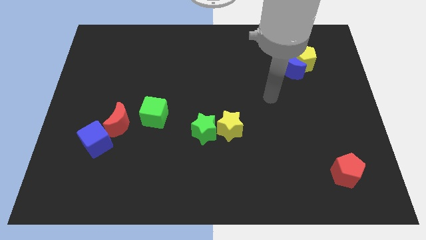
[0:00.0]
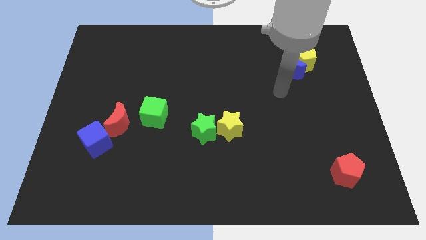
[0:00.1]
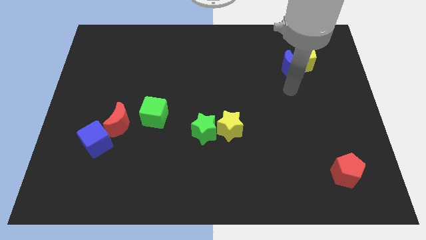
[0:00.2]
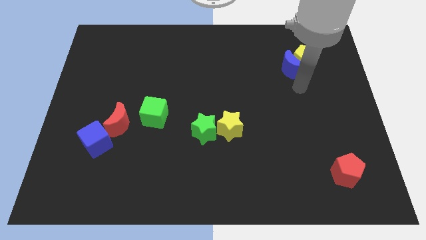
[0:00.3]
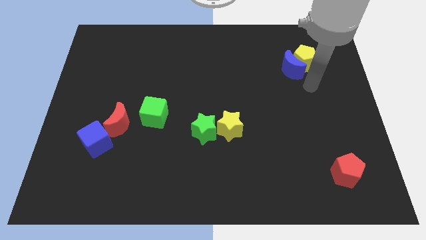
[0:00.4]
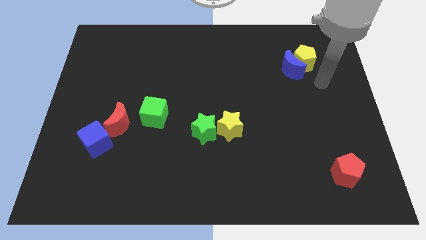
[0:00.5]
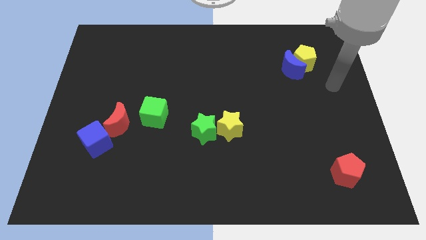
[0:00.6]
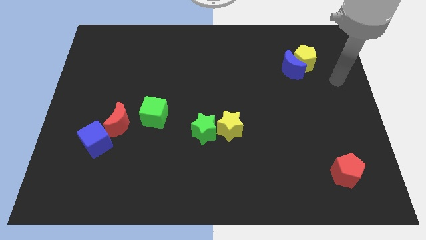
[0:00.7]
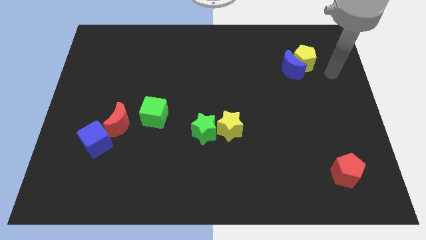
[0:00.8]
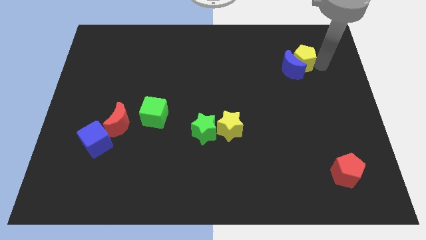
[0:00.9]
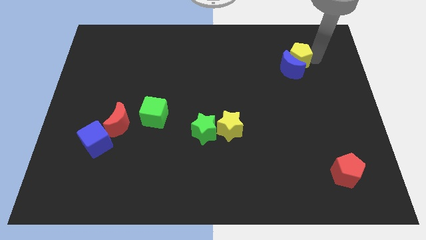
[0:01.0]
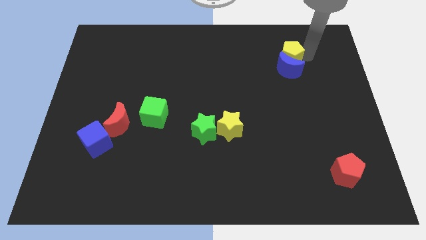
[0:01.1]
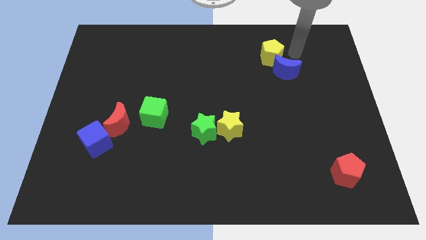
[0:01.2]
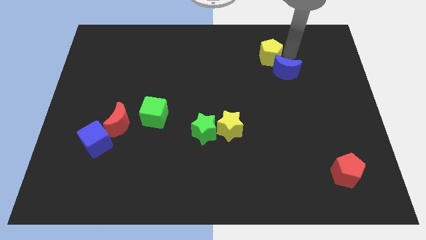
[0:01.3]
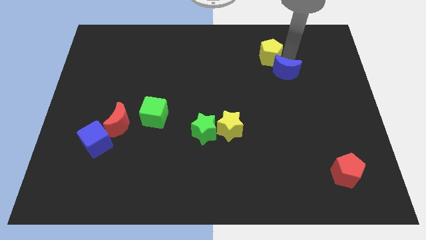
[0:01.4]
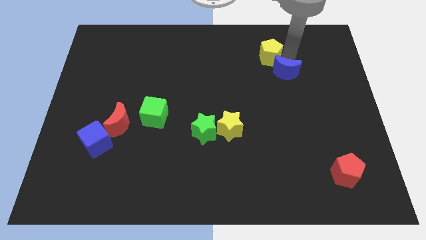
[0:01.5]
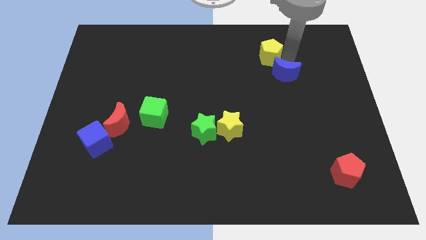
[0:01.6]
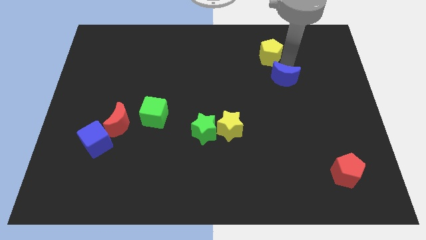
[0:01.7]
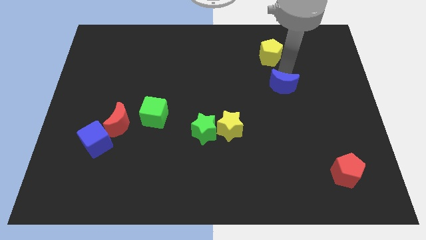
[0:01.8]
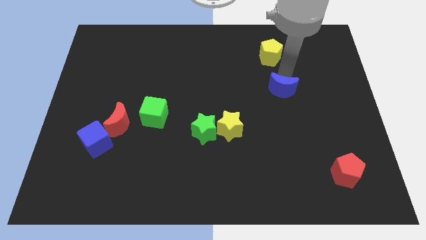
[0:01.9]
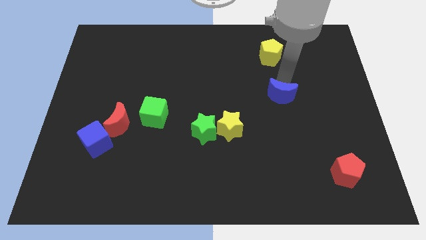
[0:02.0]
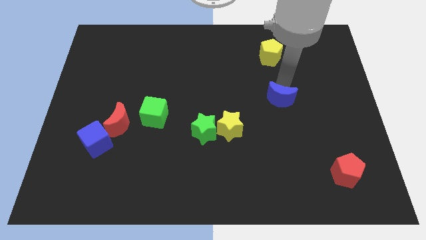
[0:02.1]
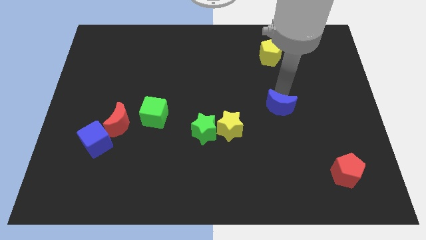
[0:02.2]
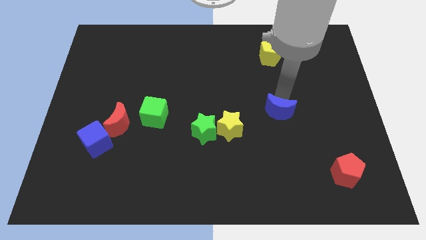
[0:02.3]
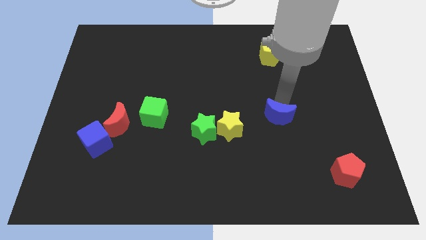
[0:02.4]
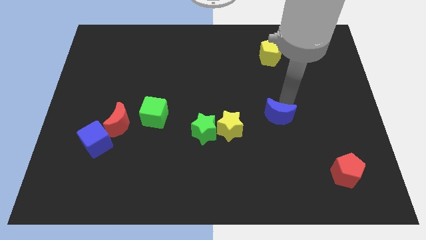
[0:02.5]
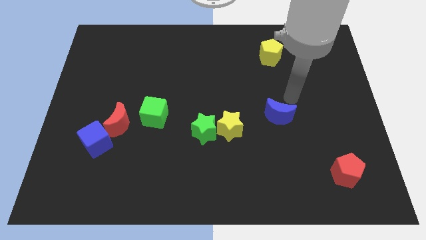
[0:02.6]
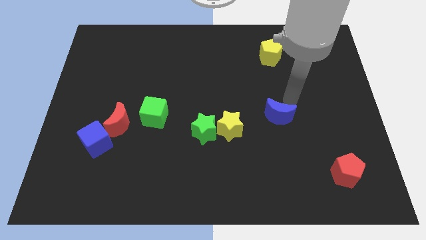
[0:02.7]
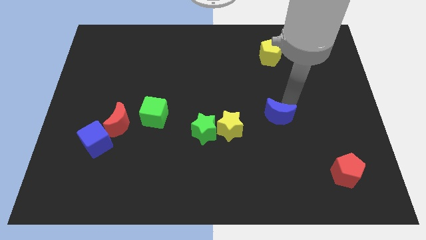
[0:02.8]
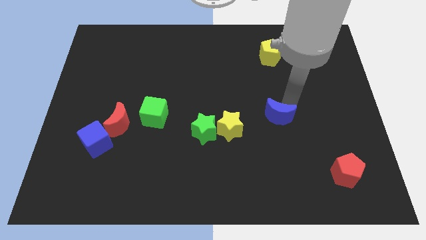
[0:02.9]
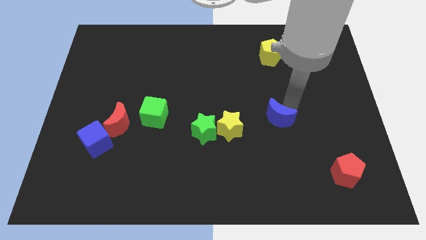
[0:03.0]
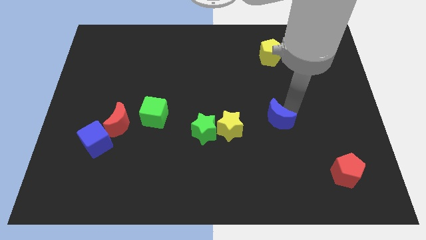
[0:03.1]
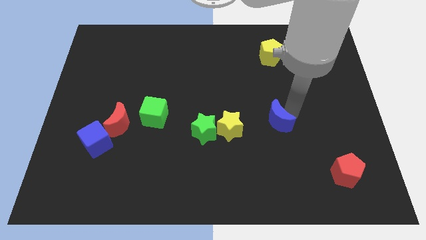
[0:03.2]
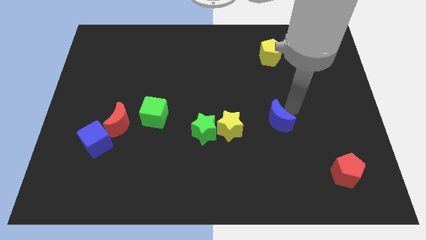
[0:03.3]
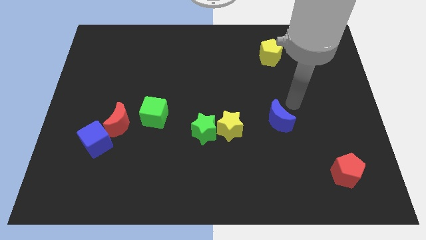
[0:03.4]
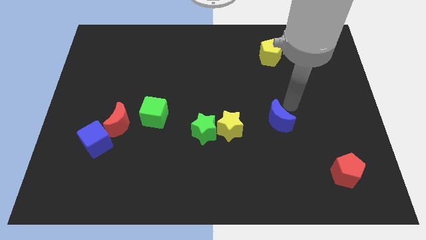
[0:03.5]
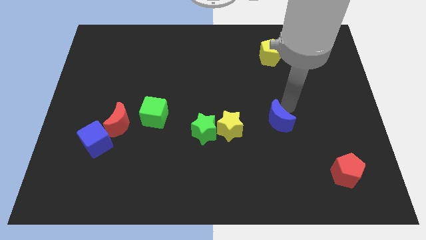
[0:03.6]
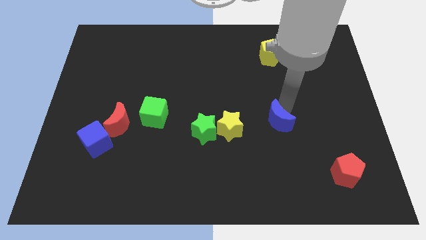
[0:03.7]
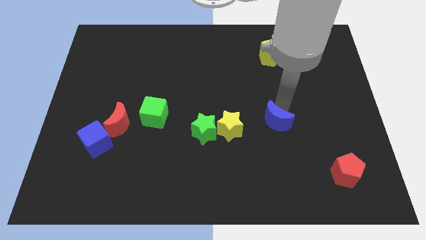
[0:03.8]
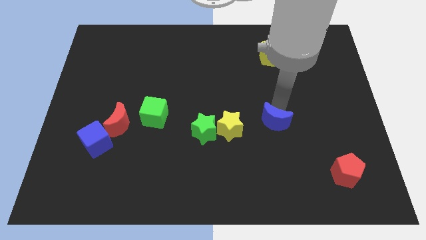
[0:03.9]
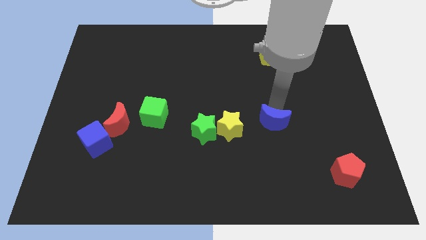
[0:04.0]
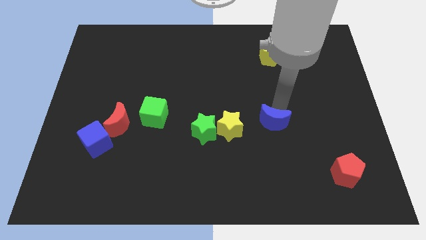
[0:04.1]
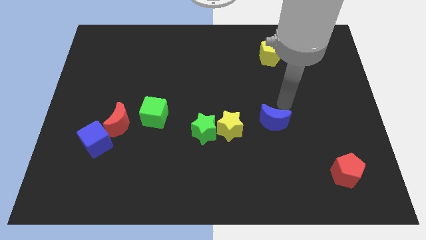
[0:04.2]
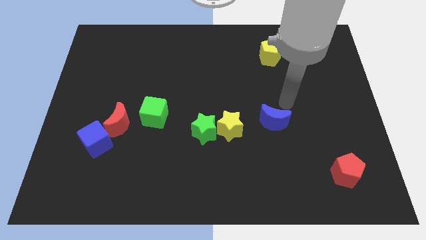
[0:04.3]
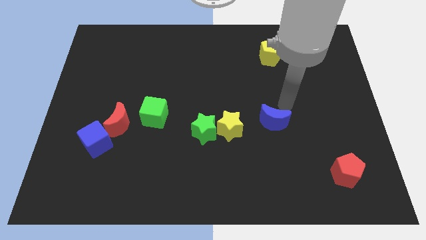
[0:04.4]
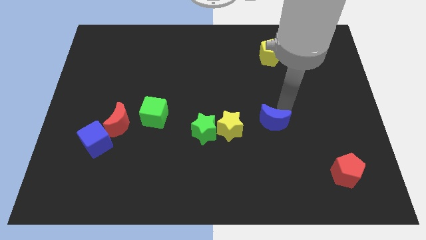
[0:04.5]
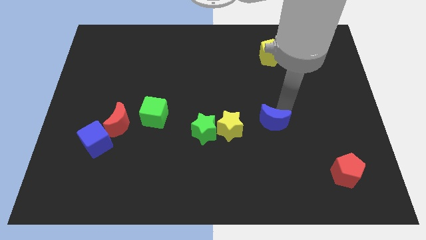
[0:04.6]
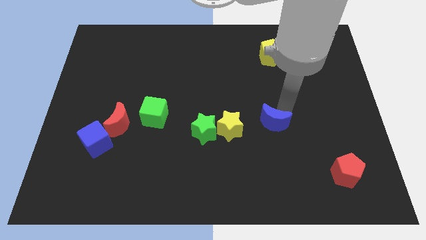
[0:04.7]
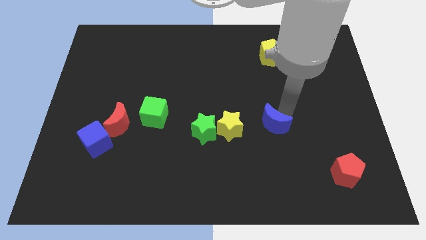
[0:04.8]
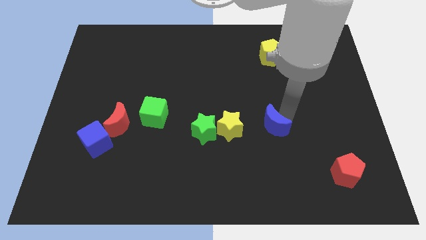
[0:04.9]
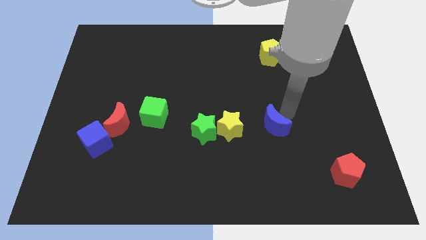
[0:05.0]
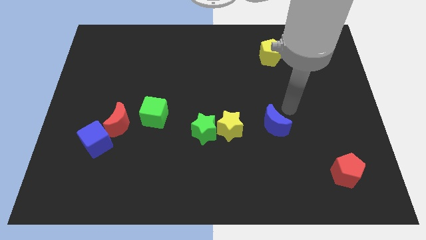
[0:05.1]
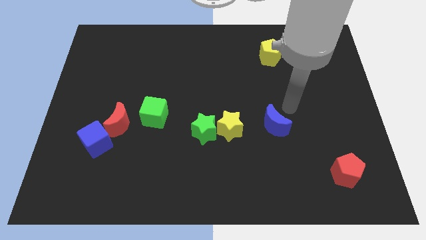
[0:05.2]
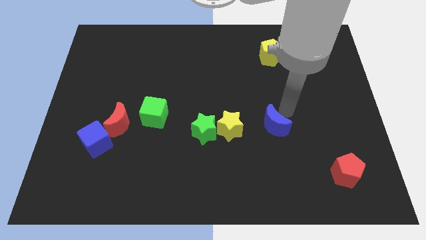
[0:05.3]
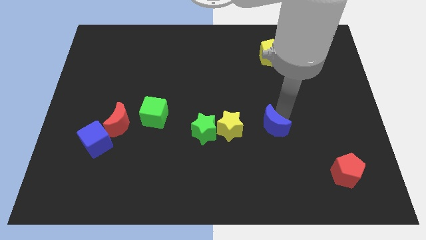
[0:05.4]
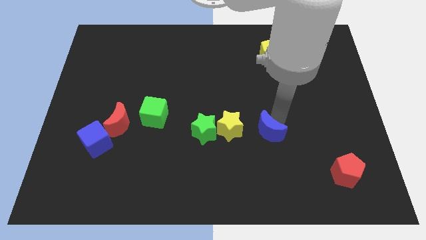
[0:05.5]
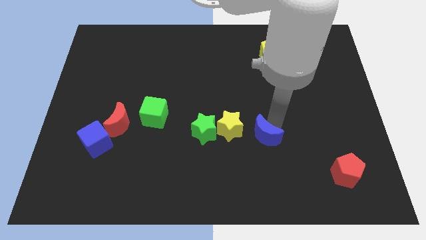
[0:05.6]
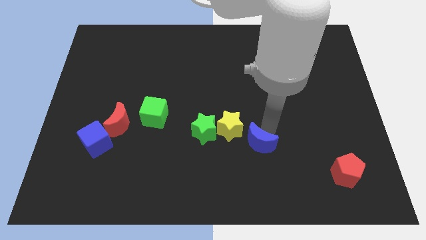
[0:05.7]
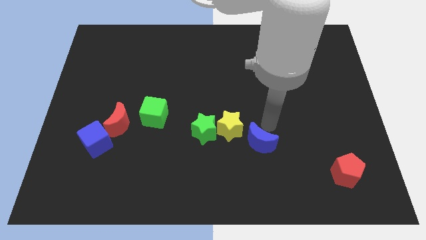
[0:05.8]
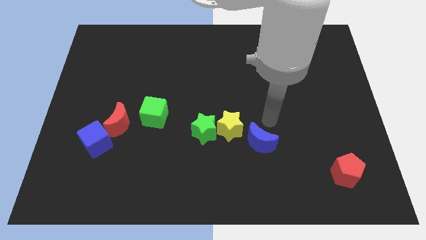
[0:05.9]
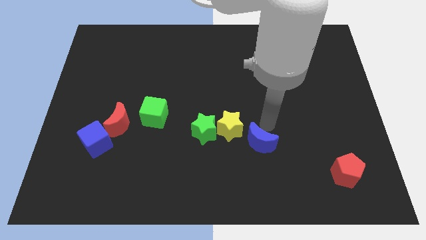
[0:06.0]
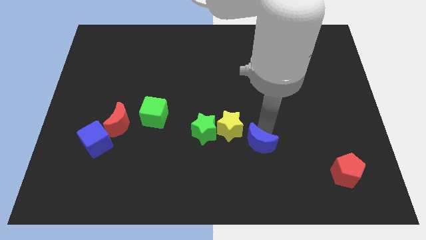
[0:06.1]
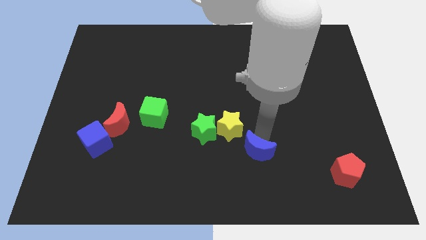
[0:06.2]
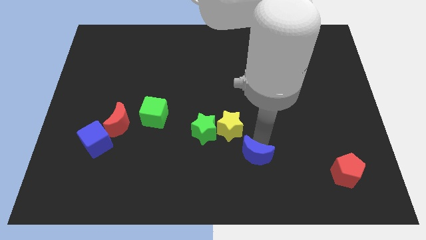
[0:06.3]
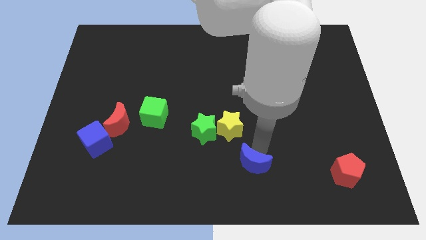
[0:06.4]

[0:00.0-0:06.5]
move the blue moon to the bottom
